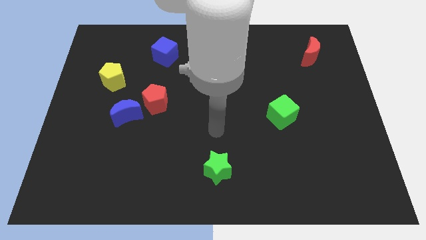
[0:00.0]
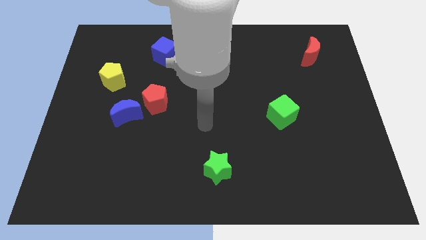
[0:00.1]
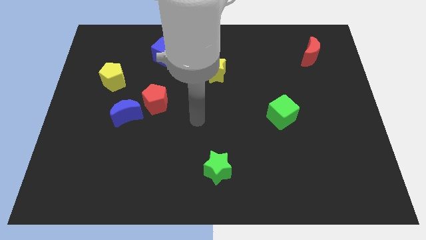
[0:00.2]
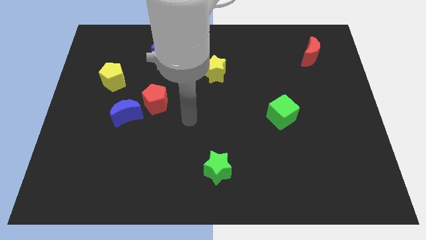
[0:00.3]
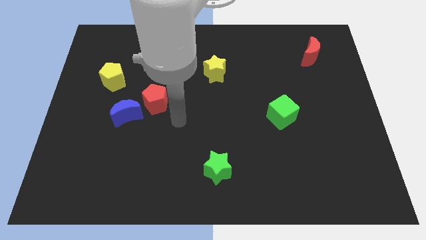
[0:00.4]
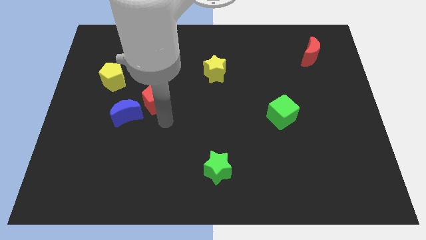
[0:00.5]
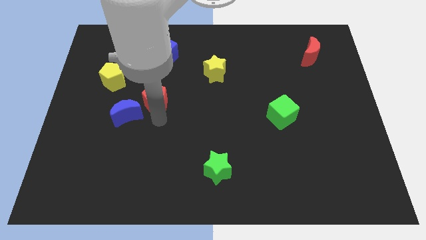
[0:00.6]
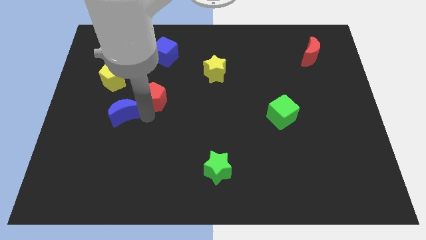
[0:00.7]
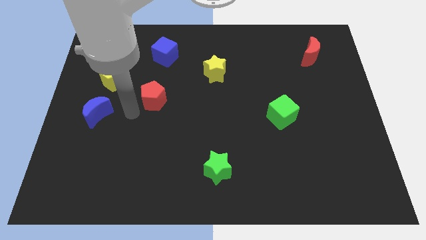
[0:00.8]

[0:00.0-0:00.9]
pull the red pentagon apart from the blue moon

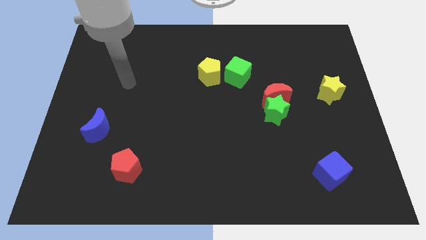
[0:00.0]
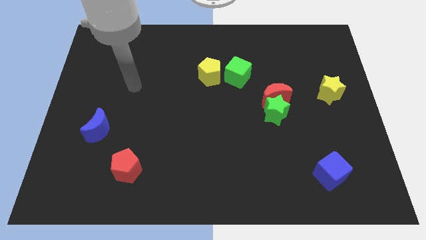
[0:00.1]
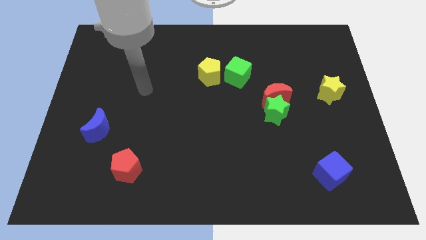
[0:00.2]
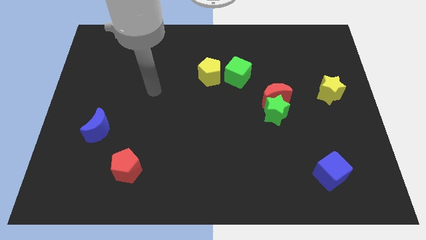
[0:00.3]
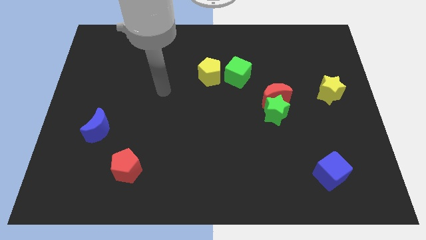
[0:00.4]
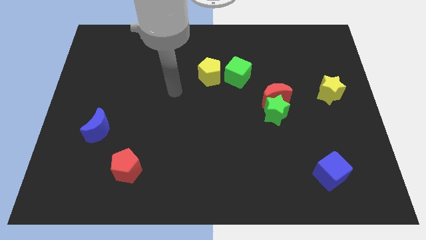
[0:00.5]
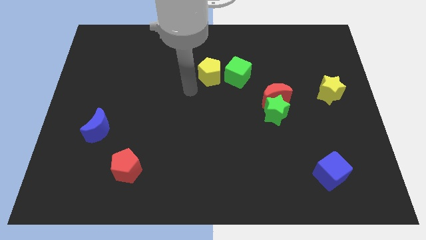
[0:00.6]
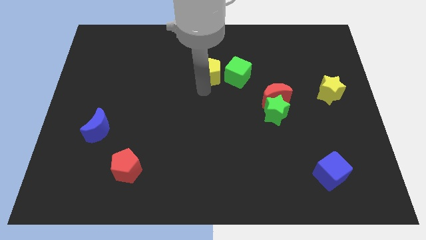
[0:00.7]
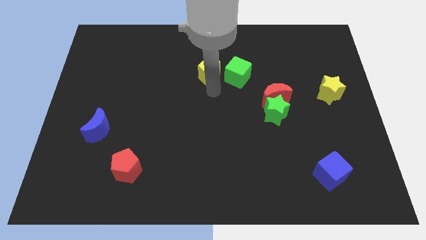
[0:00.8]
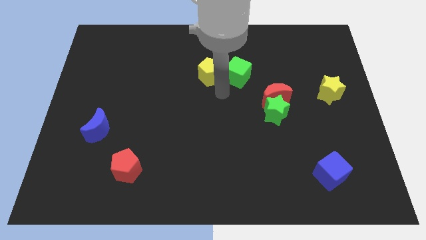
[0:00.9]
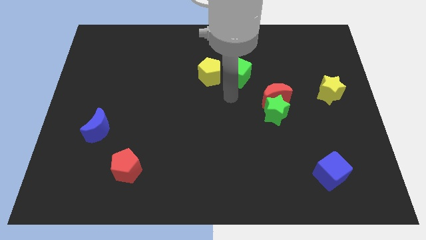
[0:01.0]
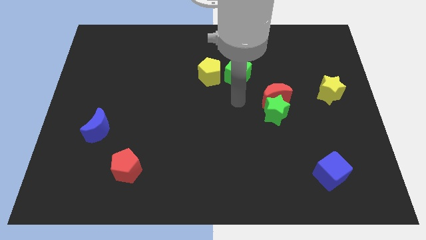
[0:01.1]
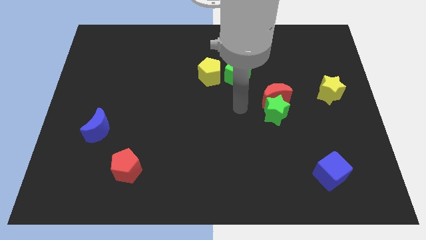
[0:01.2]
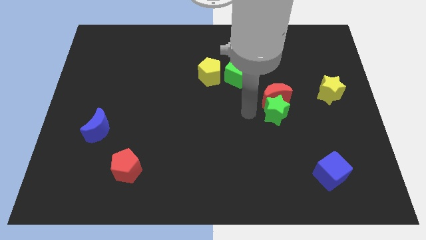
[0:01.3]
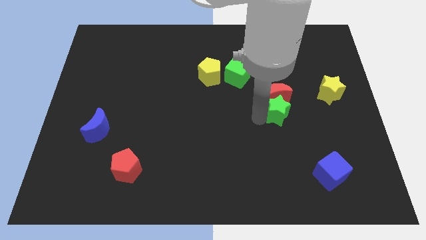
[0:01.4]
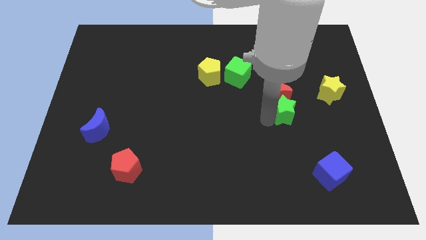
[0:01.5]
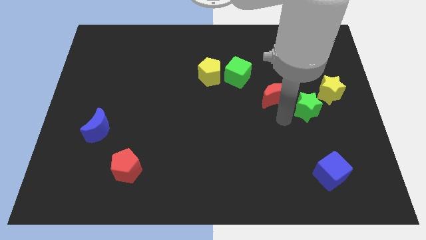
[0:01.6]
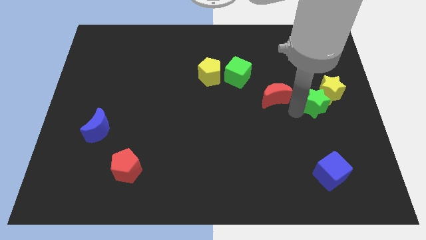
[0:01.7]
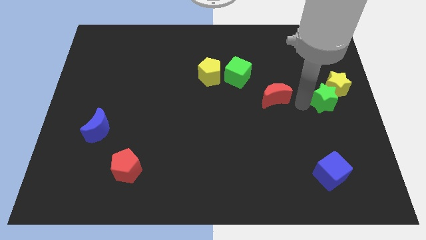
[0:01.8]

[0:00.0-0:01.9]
move the red moon away from the green star

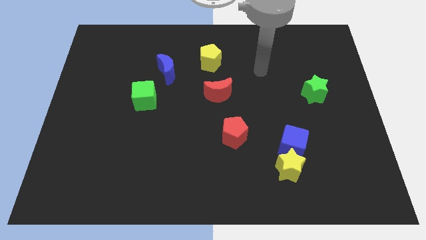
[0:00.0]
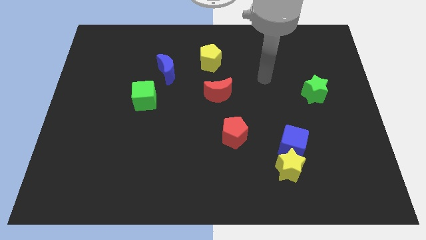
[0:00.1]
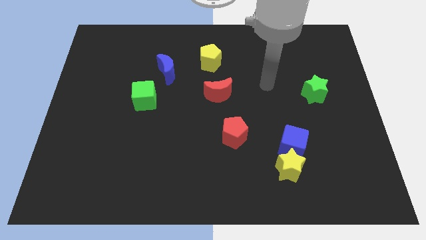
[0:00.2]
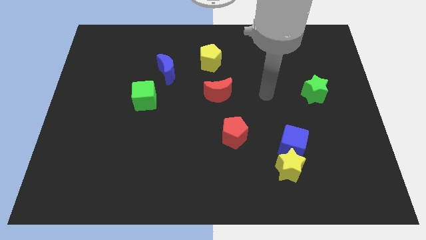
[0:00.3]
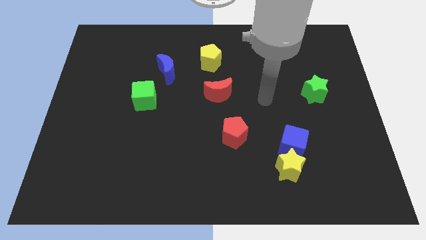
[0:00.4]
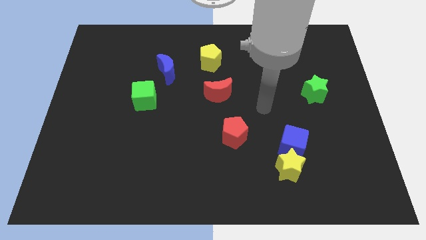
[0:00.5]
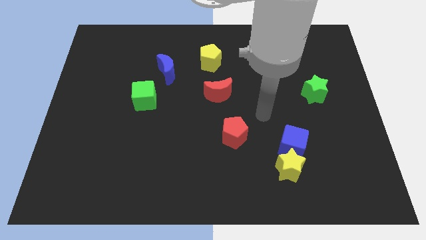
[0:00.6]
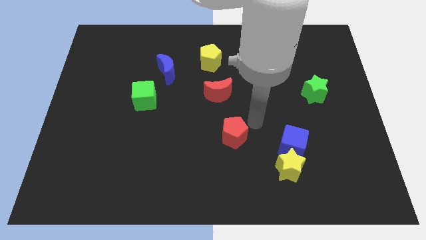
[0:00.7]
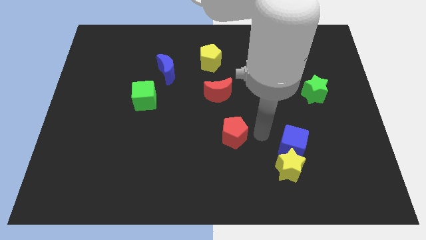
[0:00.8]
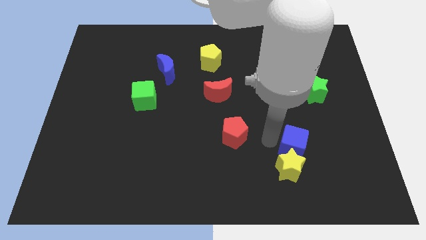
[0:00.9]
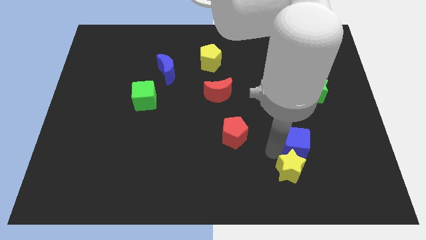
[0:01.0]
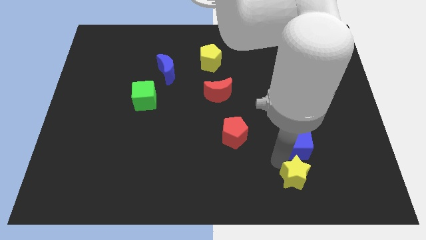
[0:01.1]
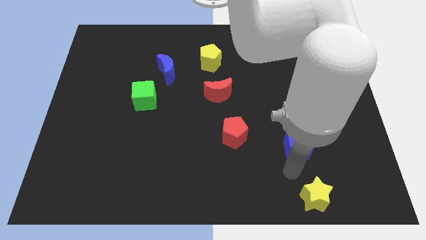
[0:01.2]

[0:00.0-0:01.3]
separate the blue cube from the yellow star

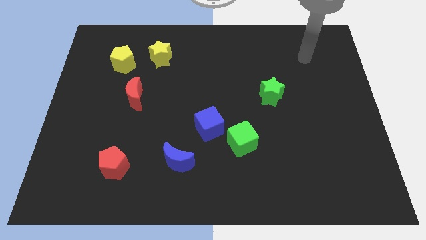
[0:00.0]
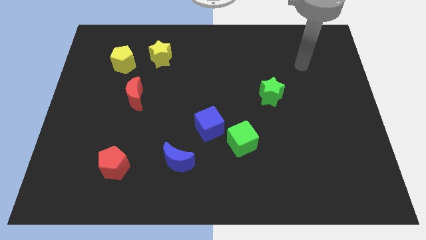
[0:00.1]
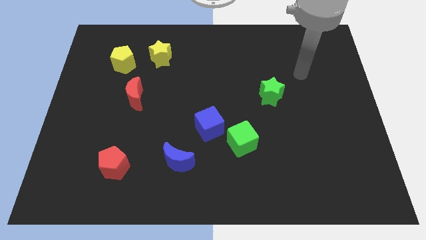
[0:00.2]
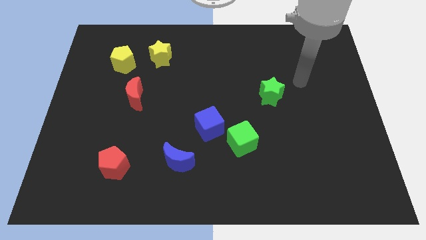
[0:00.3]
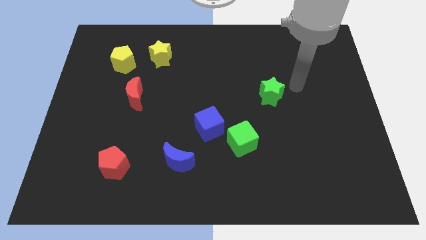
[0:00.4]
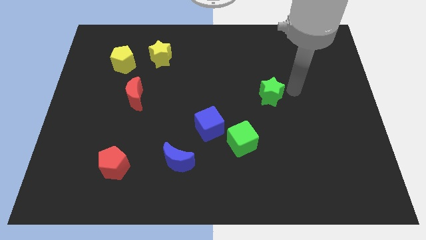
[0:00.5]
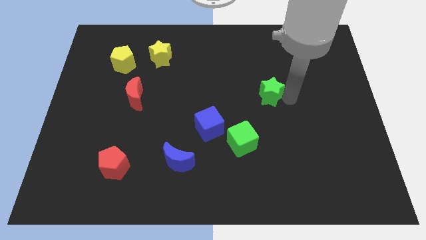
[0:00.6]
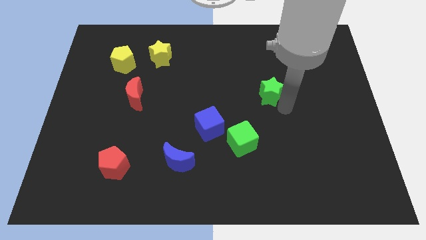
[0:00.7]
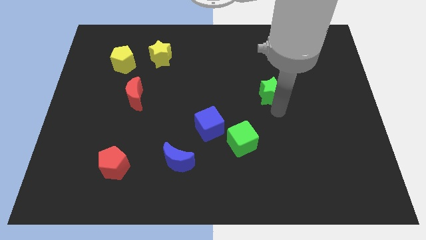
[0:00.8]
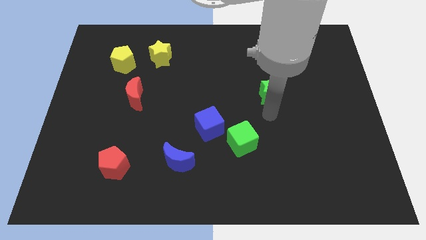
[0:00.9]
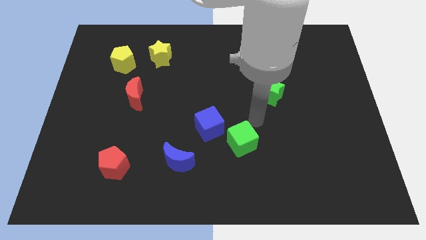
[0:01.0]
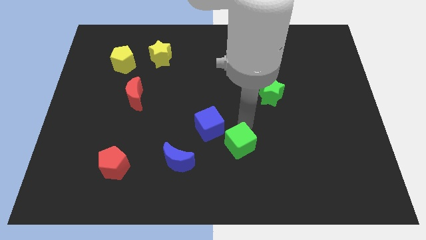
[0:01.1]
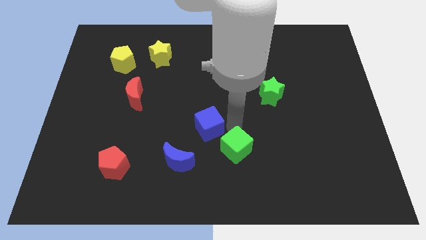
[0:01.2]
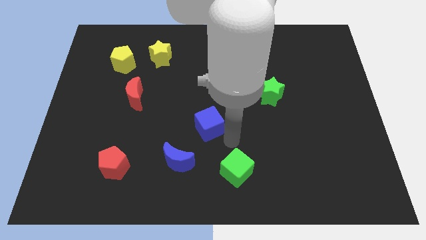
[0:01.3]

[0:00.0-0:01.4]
separate the blue cube from the green cube

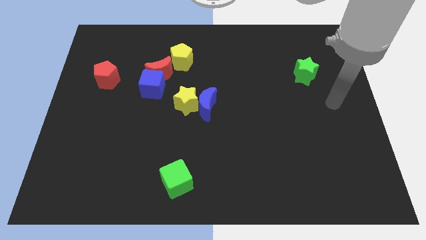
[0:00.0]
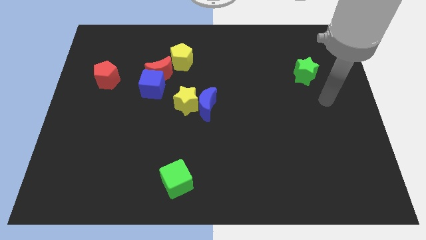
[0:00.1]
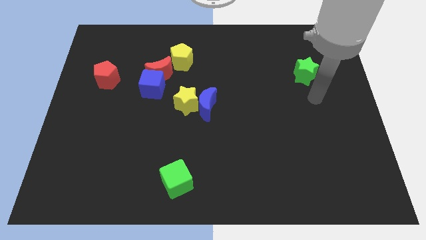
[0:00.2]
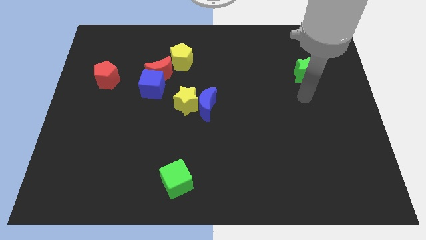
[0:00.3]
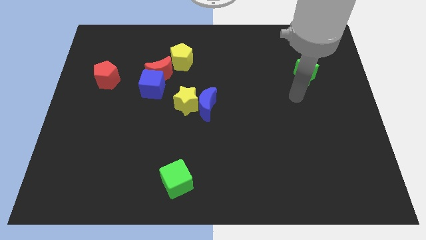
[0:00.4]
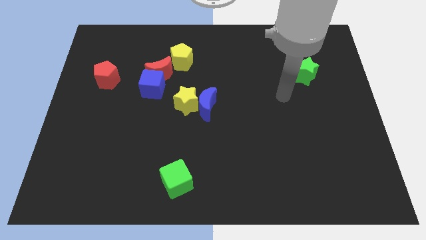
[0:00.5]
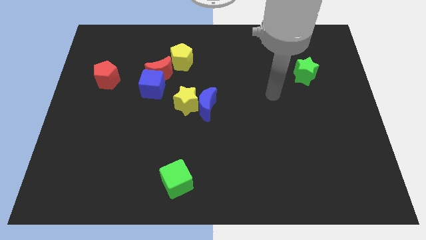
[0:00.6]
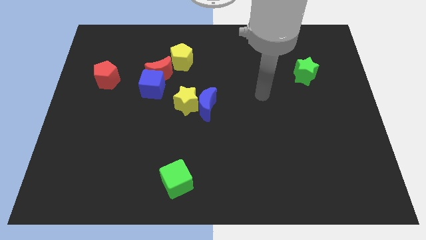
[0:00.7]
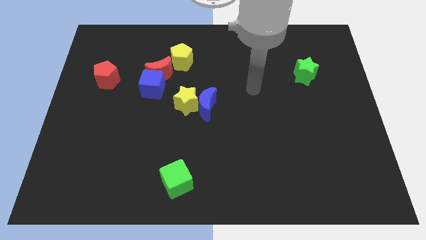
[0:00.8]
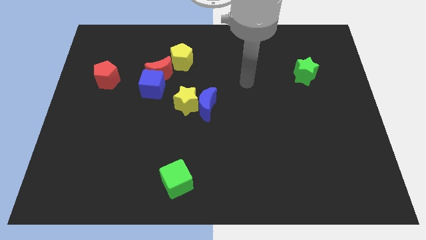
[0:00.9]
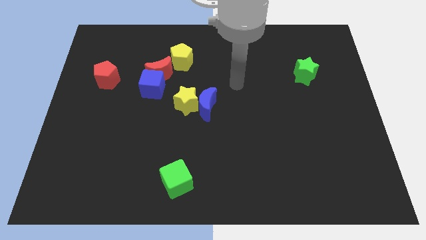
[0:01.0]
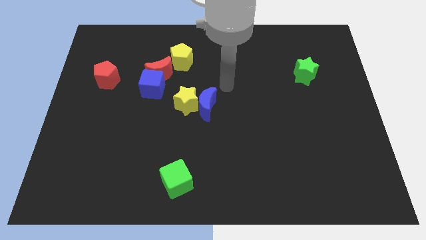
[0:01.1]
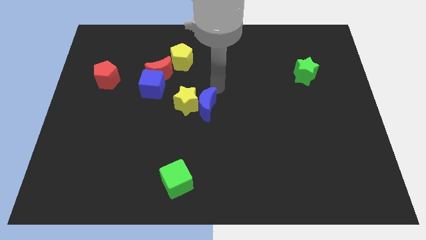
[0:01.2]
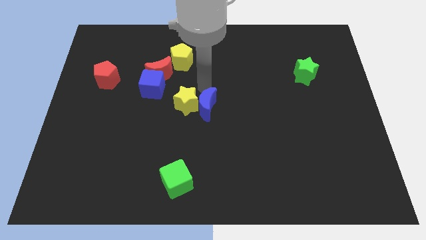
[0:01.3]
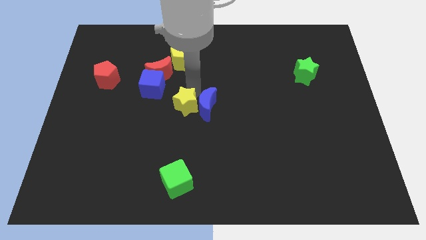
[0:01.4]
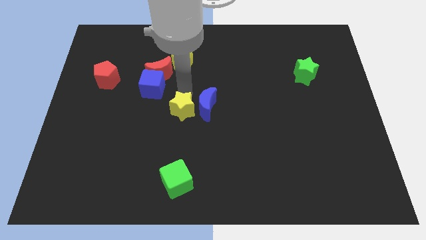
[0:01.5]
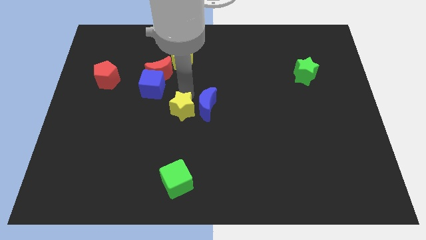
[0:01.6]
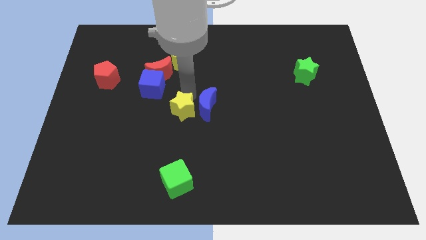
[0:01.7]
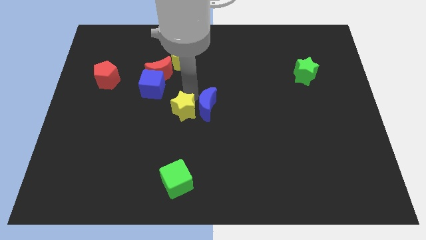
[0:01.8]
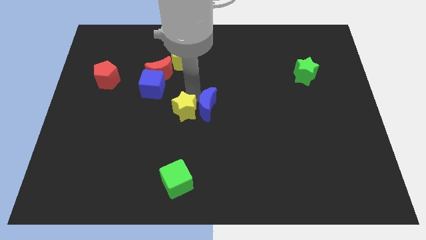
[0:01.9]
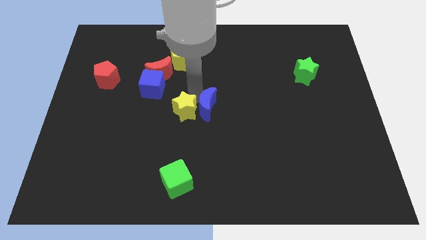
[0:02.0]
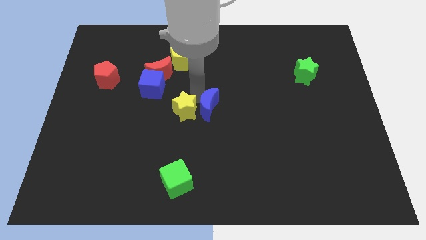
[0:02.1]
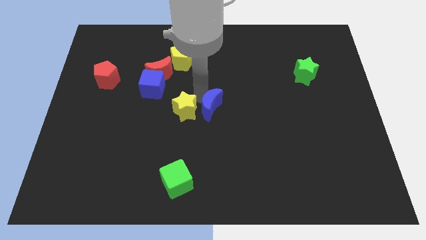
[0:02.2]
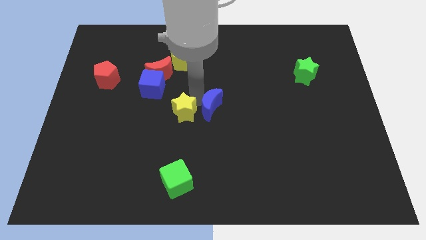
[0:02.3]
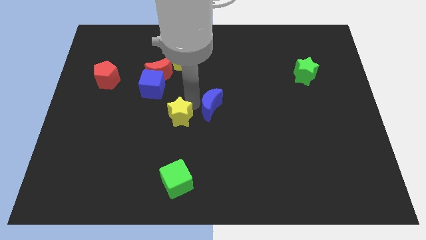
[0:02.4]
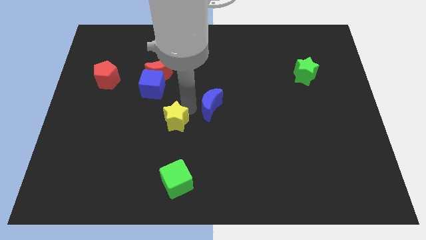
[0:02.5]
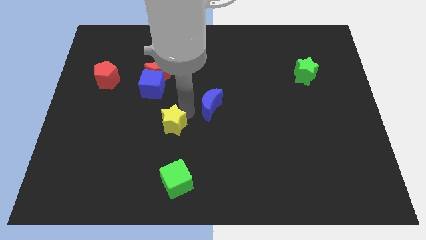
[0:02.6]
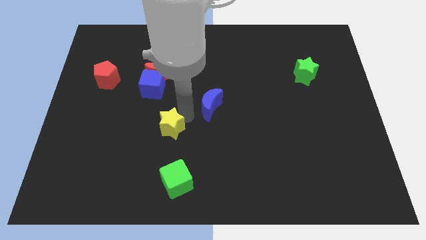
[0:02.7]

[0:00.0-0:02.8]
move the blue moon away from the yellow star

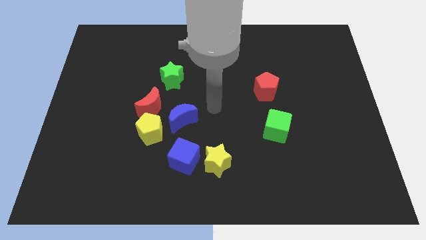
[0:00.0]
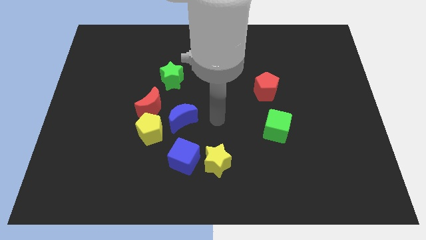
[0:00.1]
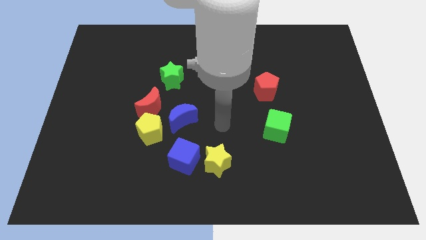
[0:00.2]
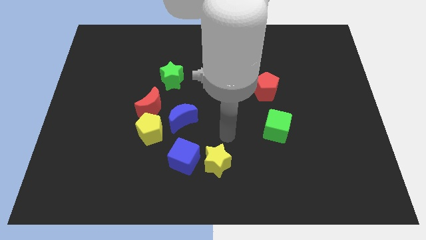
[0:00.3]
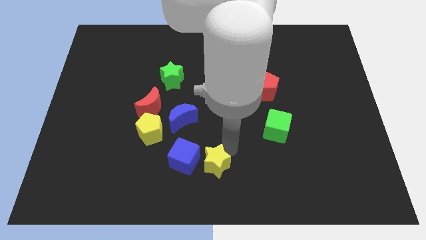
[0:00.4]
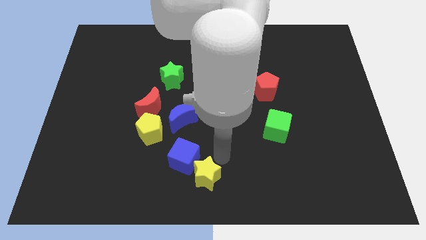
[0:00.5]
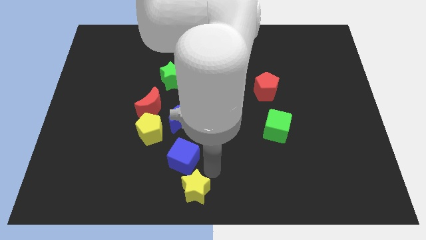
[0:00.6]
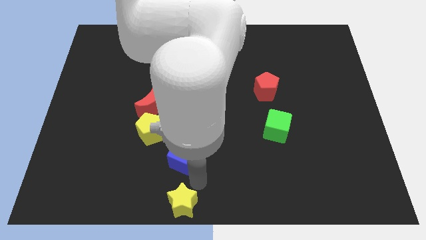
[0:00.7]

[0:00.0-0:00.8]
pull the blue cube apart from the yellow star

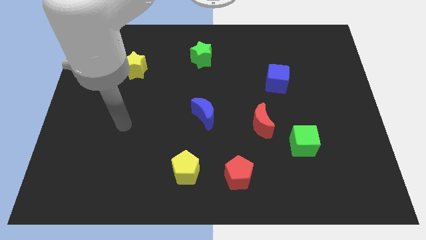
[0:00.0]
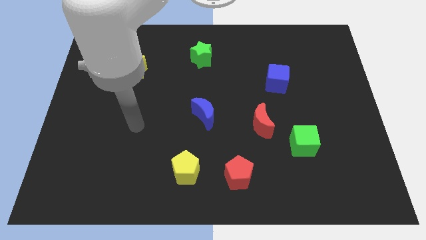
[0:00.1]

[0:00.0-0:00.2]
move the red moon away from the green cube
